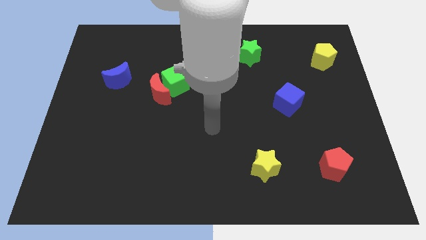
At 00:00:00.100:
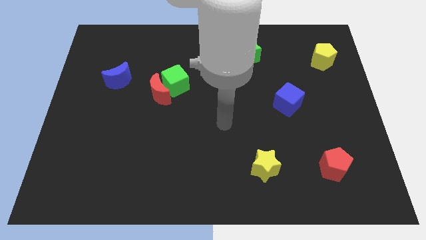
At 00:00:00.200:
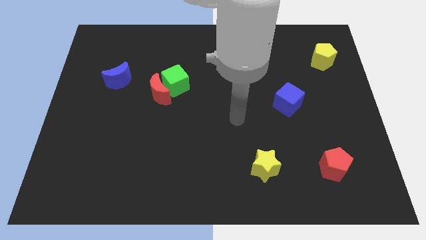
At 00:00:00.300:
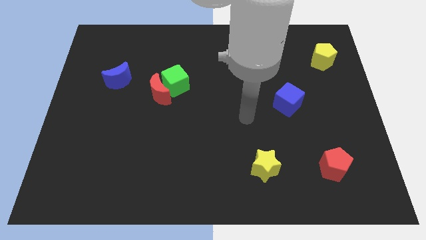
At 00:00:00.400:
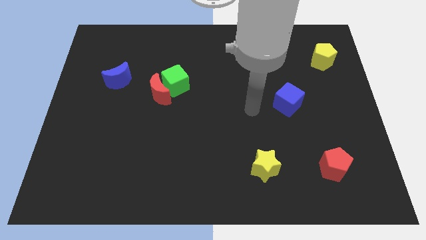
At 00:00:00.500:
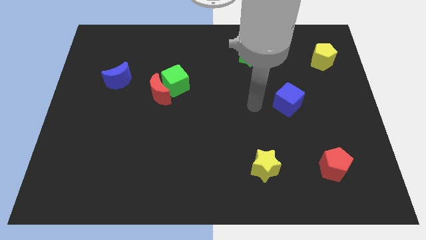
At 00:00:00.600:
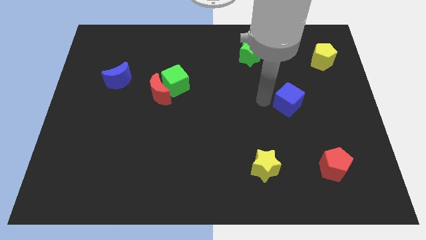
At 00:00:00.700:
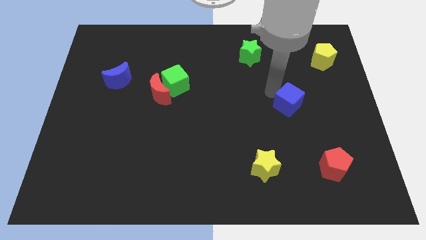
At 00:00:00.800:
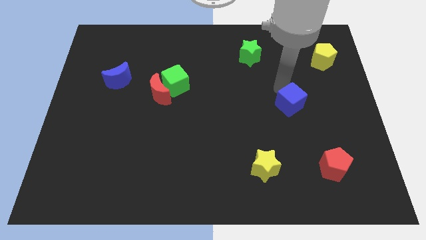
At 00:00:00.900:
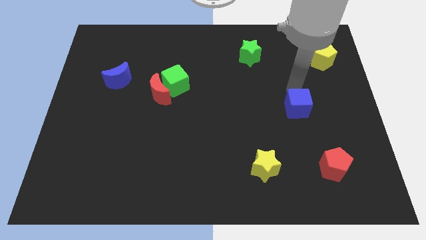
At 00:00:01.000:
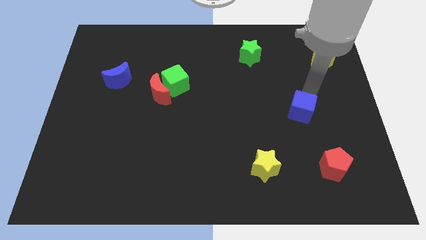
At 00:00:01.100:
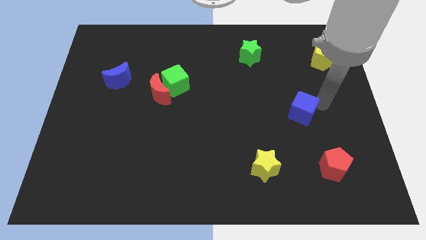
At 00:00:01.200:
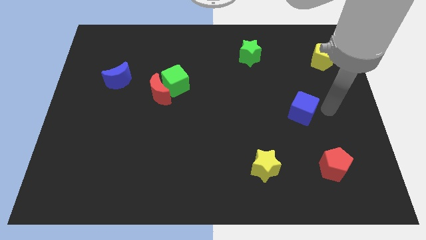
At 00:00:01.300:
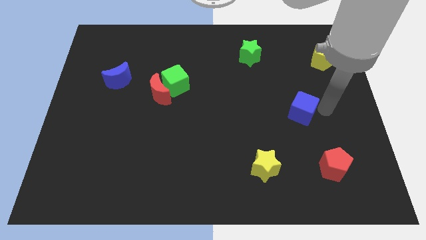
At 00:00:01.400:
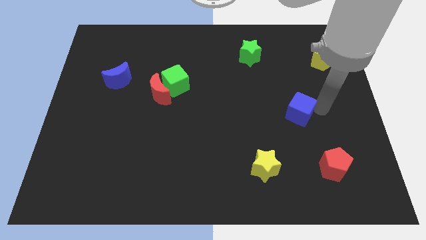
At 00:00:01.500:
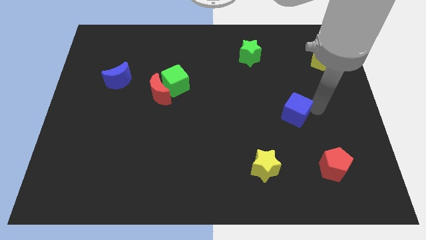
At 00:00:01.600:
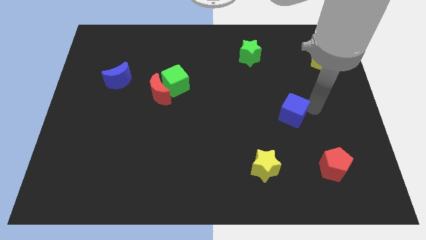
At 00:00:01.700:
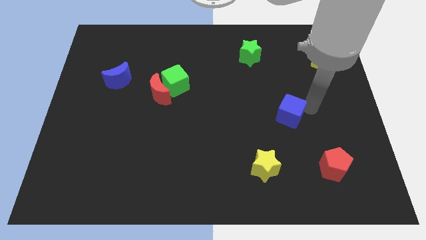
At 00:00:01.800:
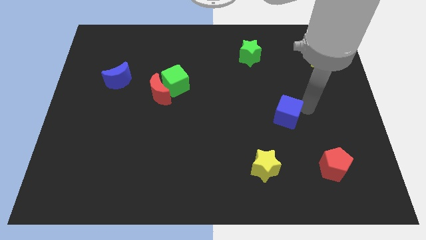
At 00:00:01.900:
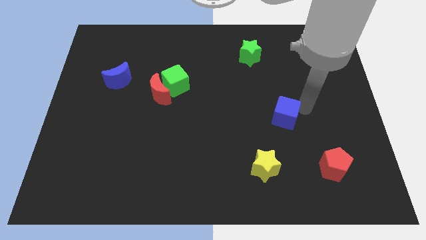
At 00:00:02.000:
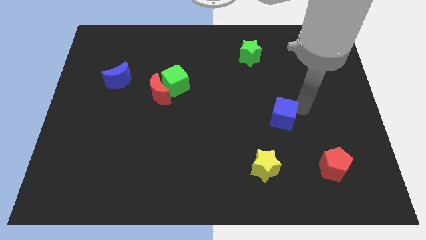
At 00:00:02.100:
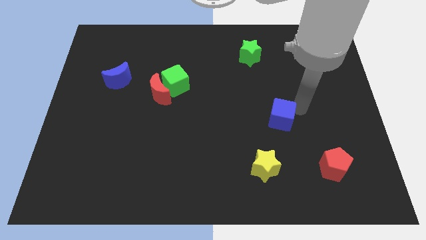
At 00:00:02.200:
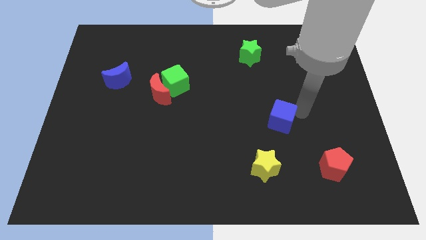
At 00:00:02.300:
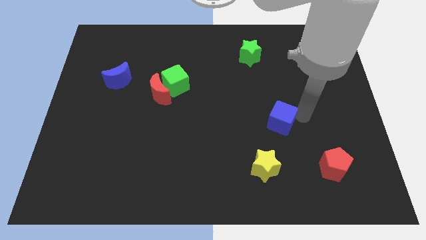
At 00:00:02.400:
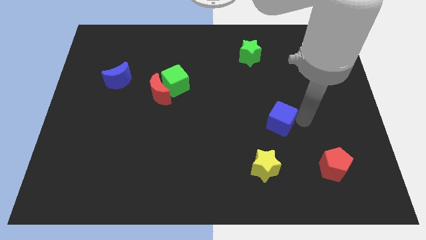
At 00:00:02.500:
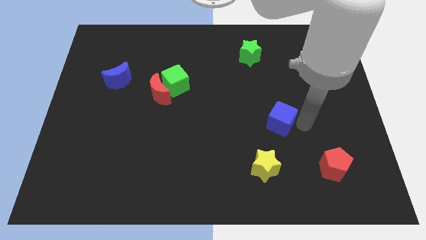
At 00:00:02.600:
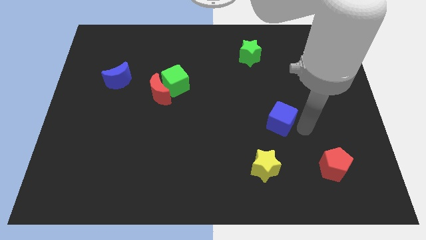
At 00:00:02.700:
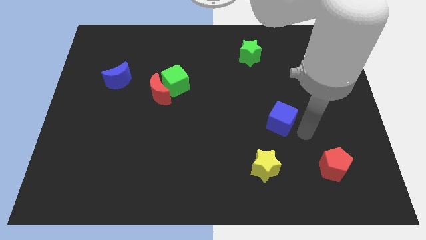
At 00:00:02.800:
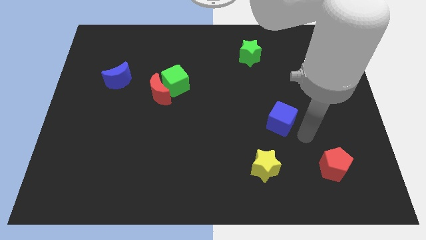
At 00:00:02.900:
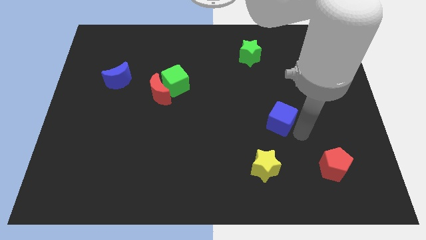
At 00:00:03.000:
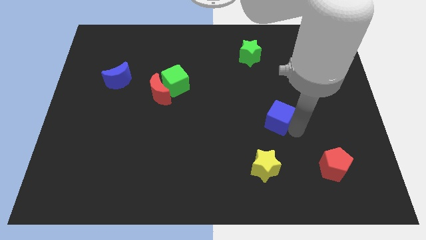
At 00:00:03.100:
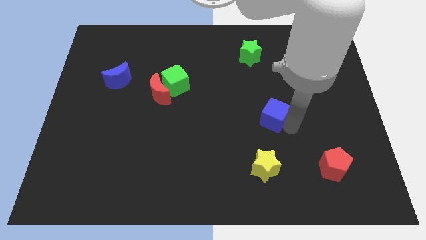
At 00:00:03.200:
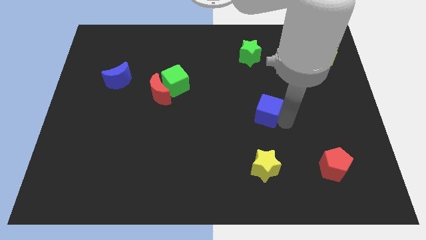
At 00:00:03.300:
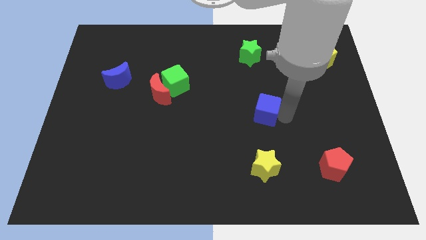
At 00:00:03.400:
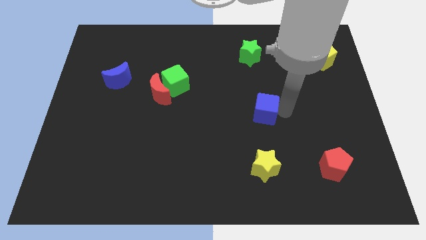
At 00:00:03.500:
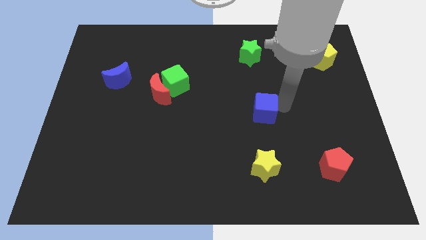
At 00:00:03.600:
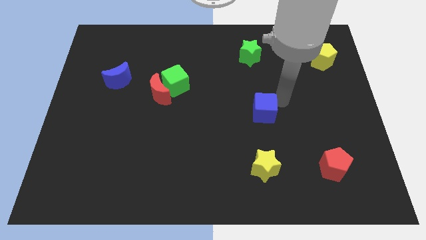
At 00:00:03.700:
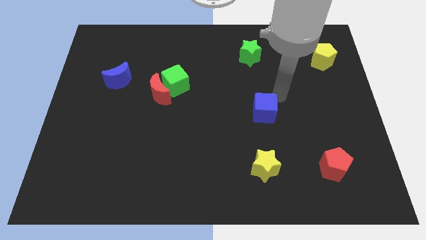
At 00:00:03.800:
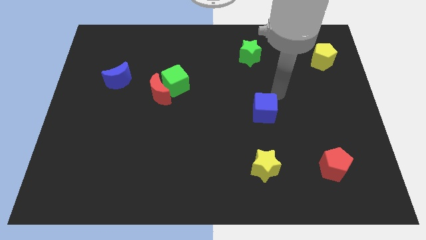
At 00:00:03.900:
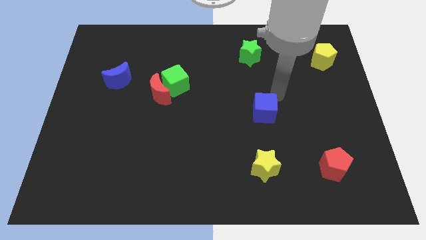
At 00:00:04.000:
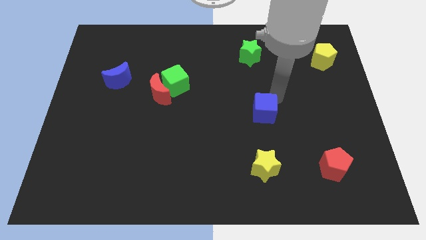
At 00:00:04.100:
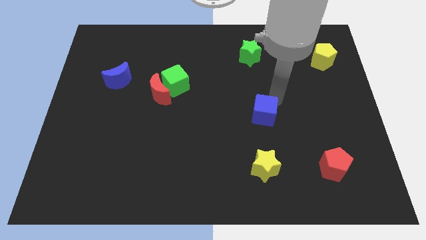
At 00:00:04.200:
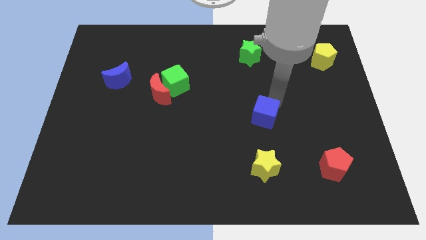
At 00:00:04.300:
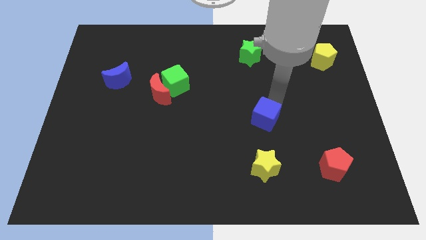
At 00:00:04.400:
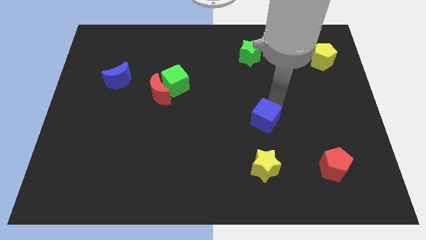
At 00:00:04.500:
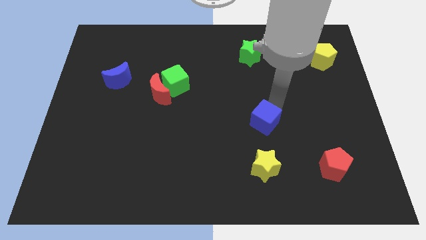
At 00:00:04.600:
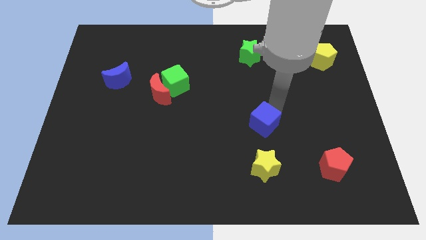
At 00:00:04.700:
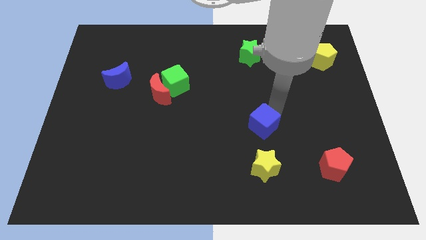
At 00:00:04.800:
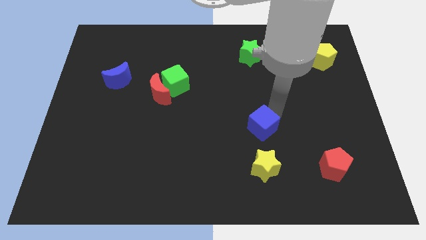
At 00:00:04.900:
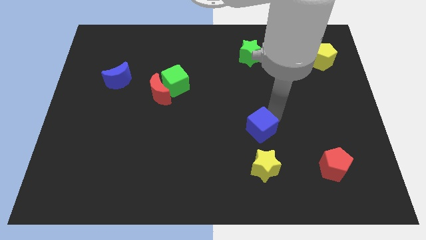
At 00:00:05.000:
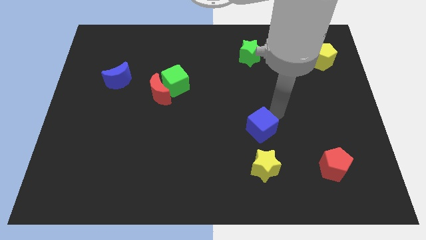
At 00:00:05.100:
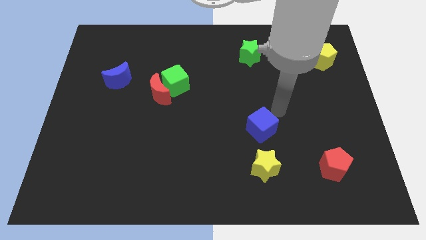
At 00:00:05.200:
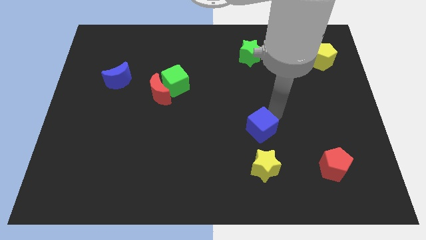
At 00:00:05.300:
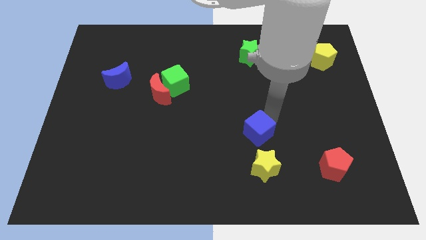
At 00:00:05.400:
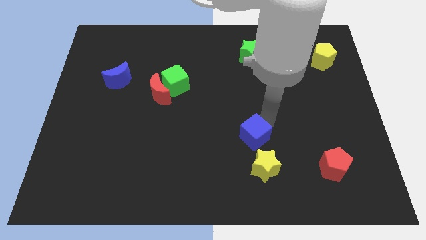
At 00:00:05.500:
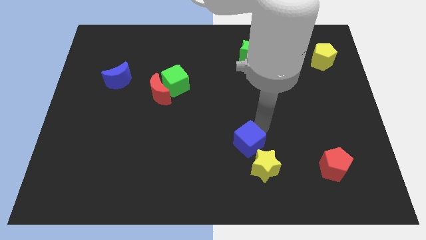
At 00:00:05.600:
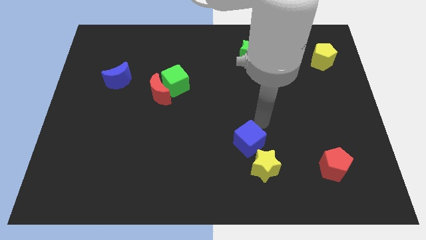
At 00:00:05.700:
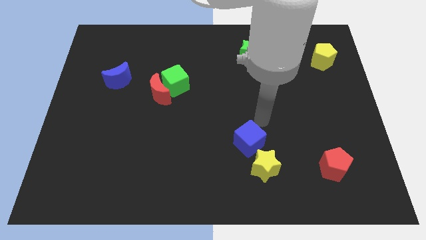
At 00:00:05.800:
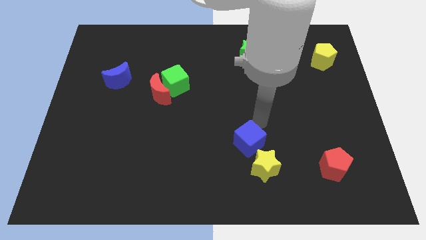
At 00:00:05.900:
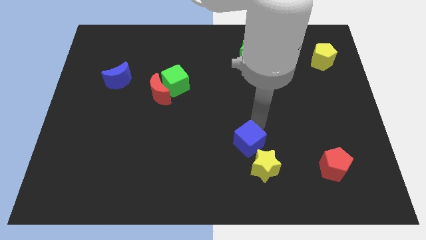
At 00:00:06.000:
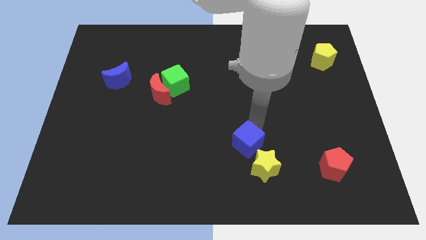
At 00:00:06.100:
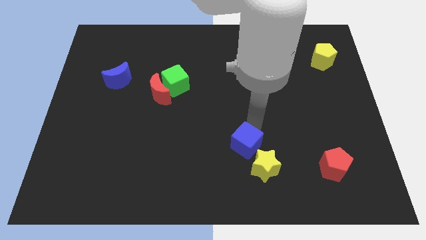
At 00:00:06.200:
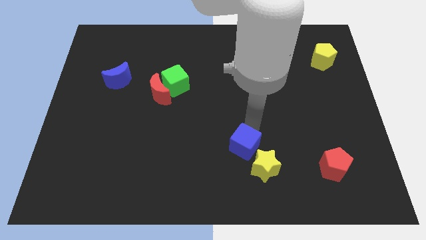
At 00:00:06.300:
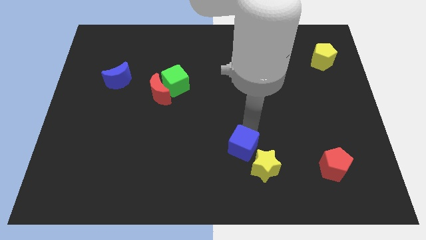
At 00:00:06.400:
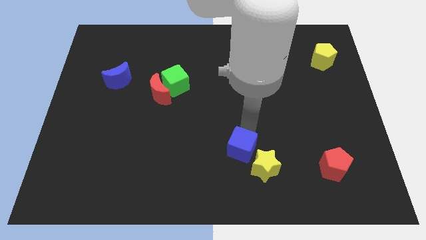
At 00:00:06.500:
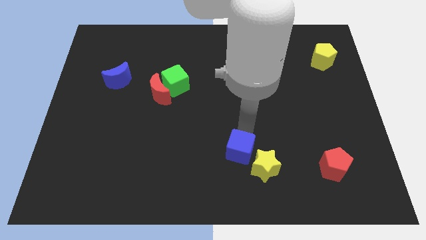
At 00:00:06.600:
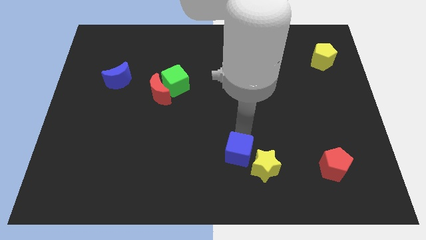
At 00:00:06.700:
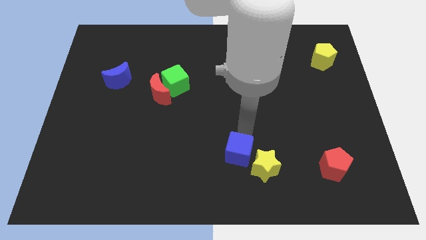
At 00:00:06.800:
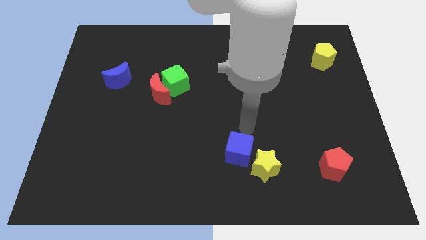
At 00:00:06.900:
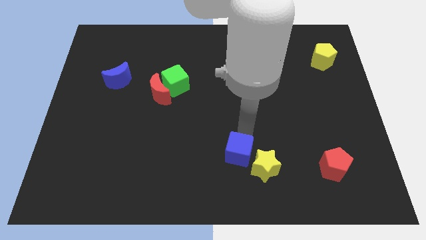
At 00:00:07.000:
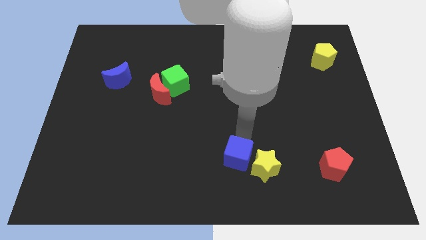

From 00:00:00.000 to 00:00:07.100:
move the blue cube to the bottom

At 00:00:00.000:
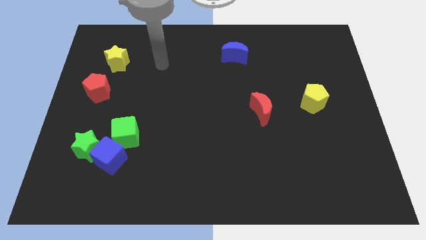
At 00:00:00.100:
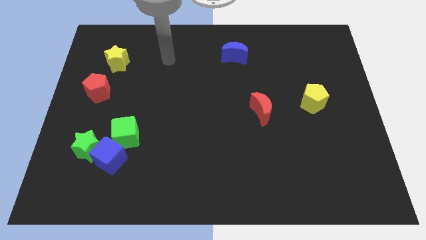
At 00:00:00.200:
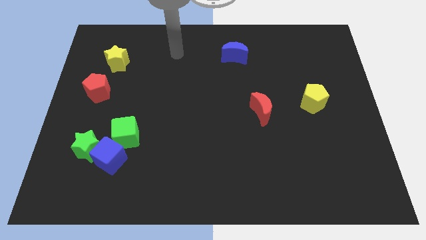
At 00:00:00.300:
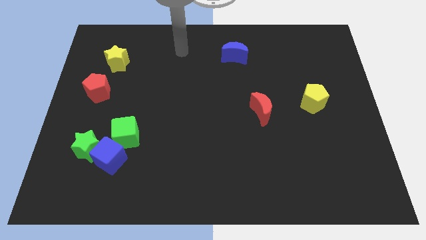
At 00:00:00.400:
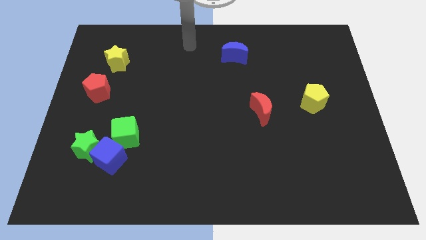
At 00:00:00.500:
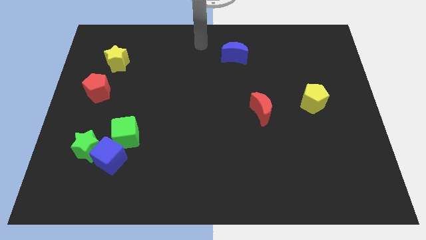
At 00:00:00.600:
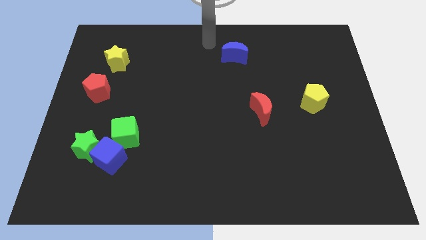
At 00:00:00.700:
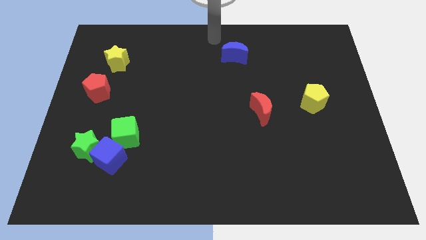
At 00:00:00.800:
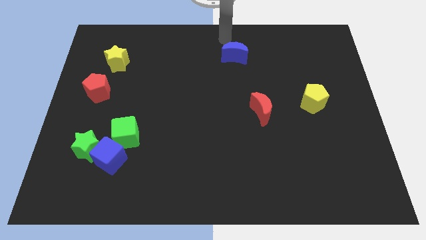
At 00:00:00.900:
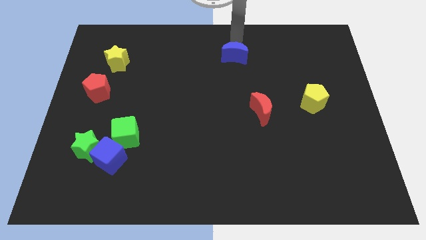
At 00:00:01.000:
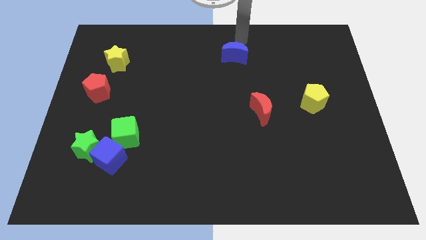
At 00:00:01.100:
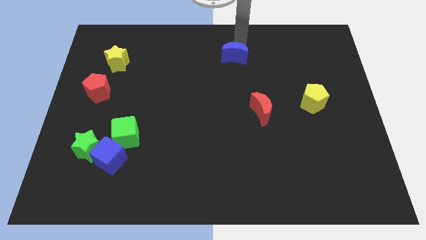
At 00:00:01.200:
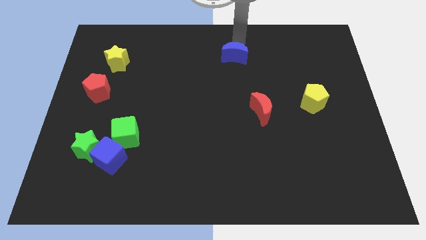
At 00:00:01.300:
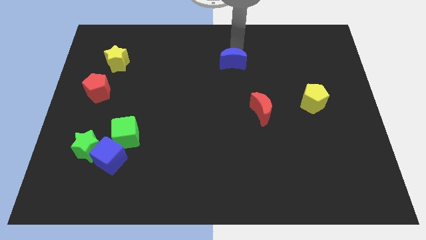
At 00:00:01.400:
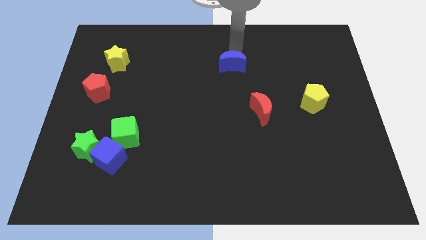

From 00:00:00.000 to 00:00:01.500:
slide the blue moon to the center
